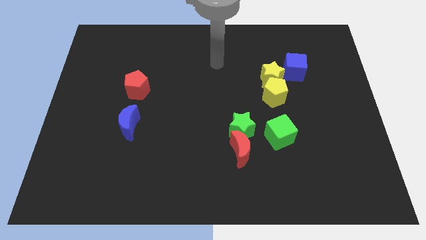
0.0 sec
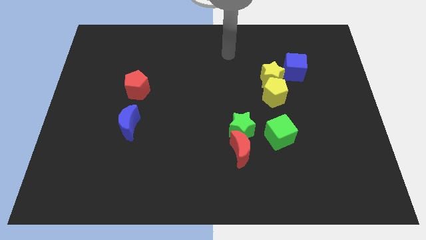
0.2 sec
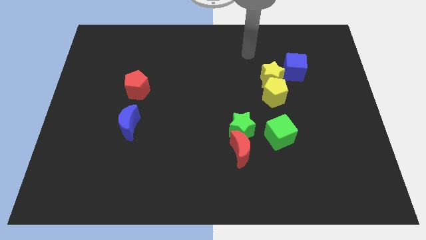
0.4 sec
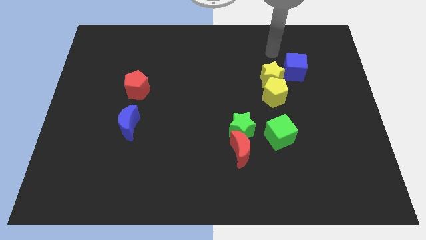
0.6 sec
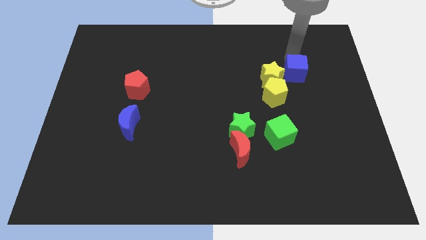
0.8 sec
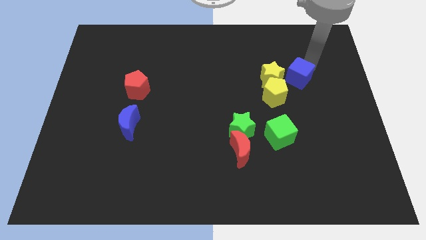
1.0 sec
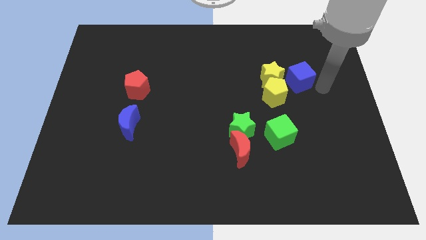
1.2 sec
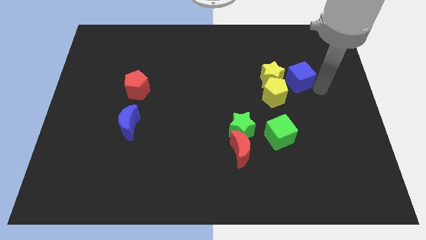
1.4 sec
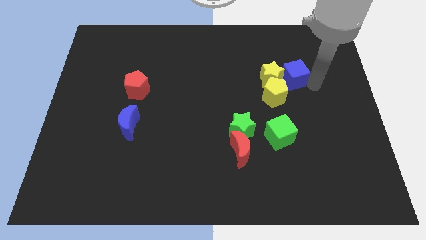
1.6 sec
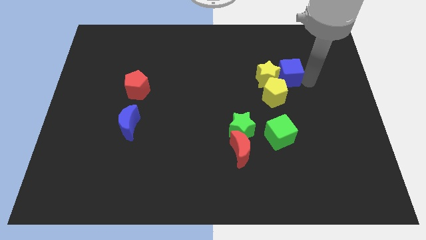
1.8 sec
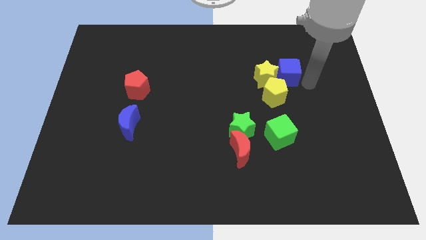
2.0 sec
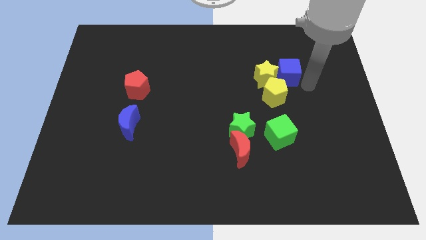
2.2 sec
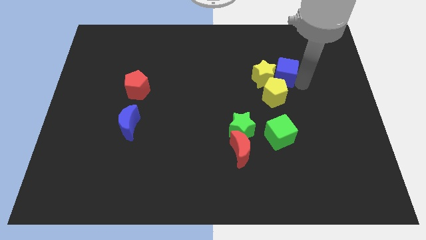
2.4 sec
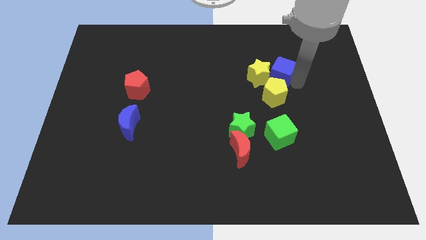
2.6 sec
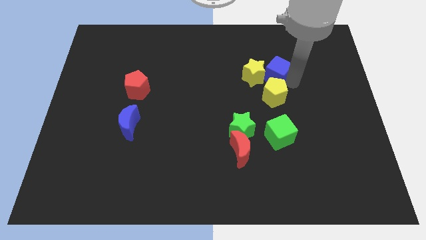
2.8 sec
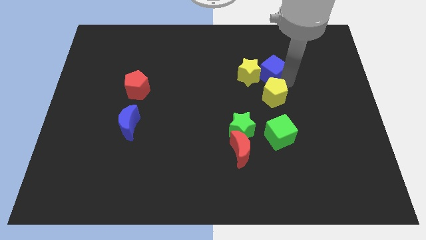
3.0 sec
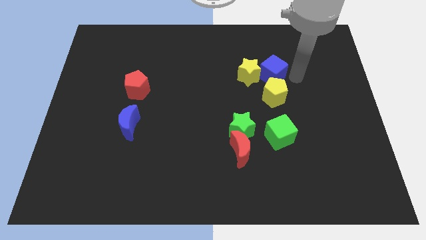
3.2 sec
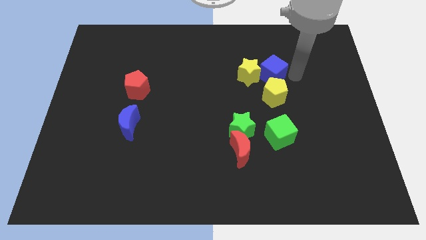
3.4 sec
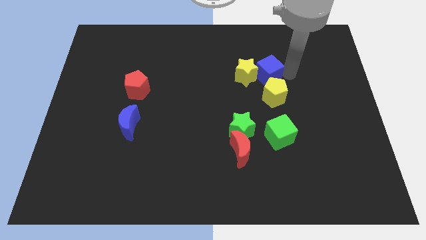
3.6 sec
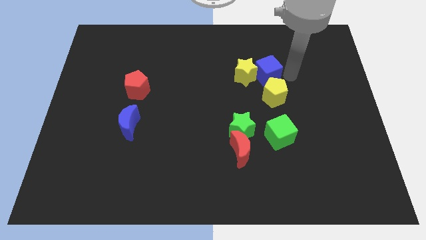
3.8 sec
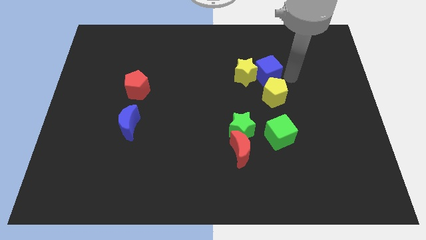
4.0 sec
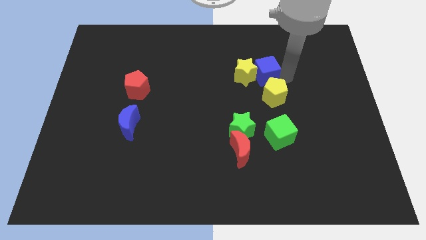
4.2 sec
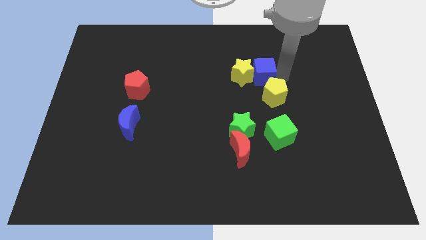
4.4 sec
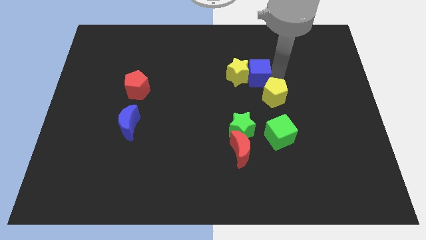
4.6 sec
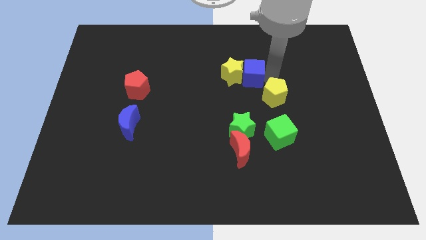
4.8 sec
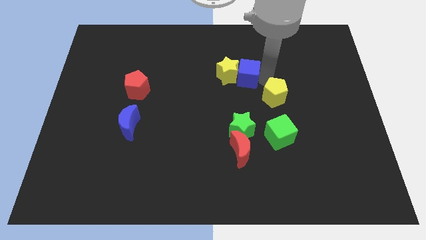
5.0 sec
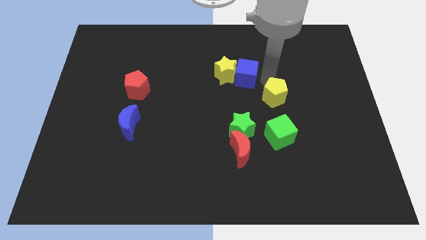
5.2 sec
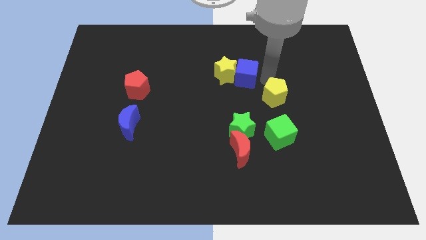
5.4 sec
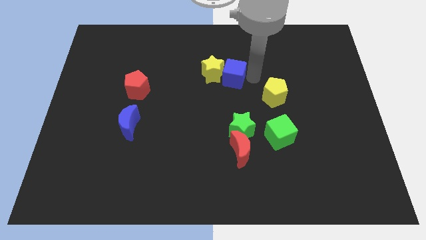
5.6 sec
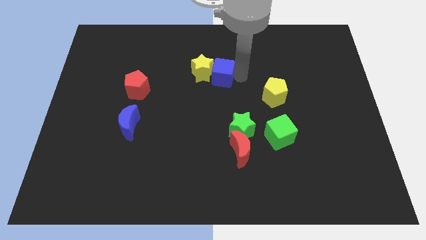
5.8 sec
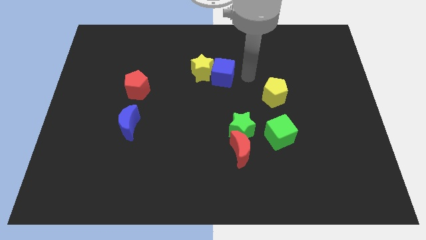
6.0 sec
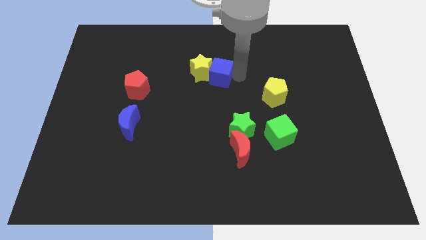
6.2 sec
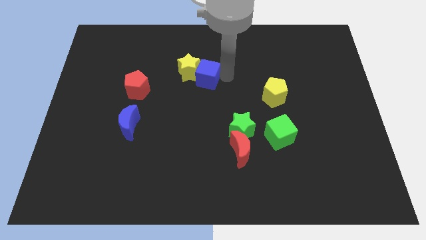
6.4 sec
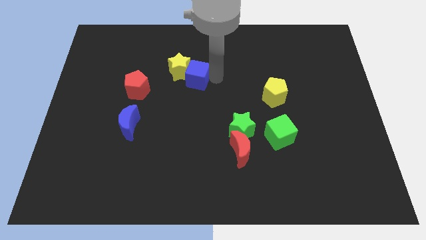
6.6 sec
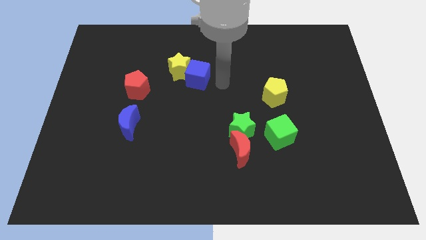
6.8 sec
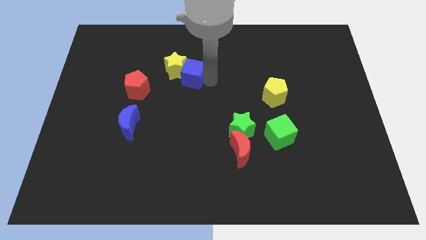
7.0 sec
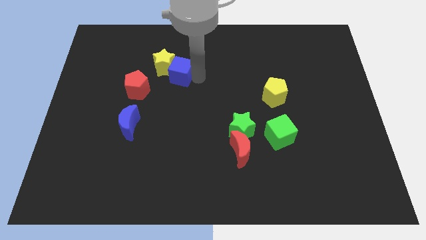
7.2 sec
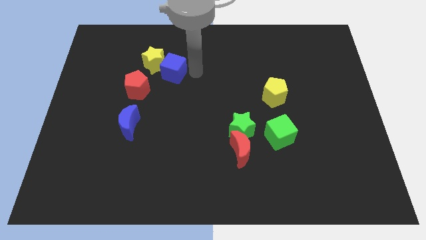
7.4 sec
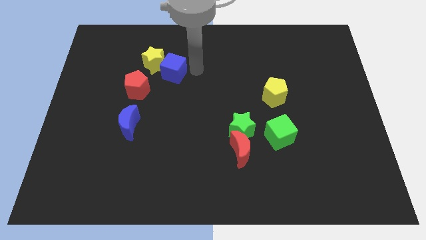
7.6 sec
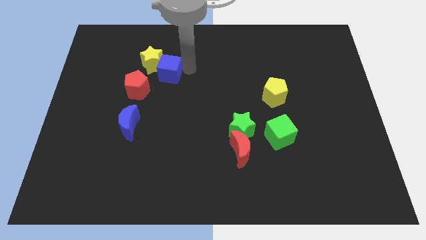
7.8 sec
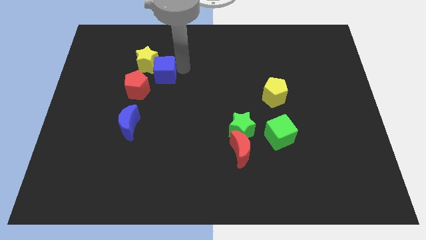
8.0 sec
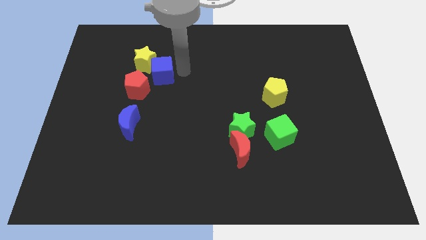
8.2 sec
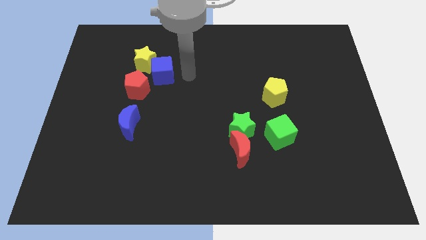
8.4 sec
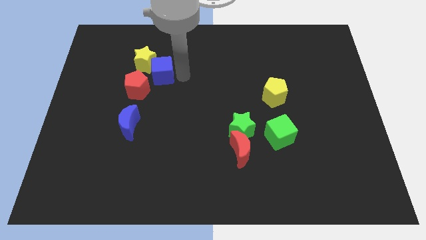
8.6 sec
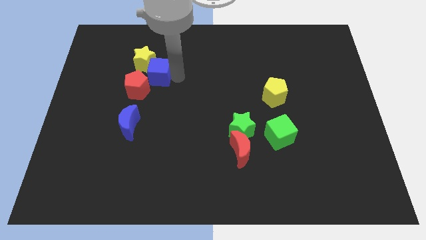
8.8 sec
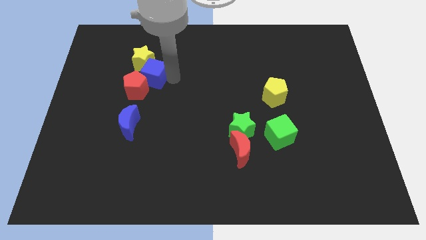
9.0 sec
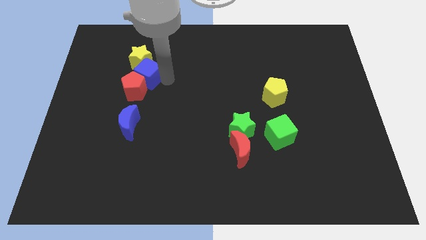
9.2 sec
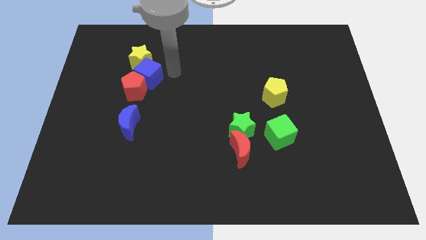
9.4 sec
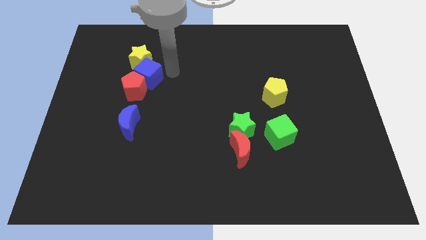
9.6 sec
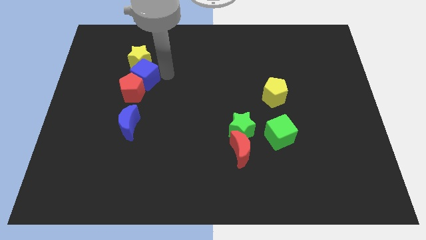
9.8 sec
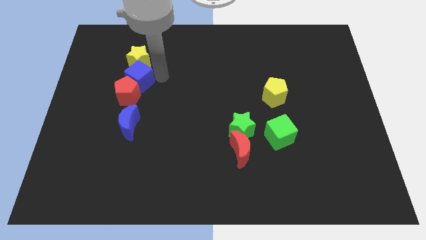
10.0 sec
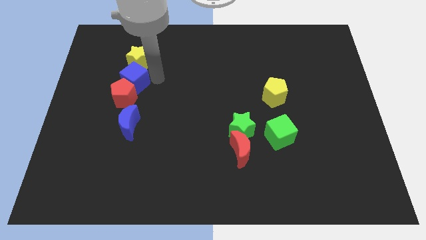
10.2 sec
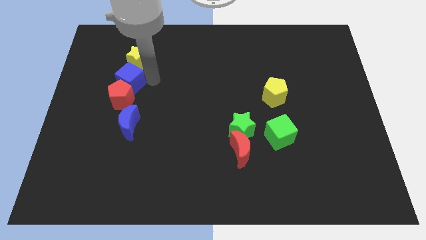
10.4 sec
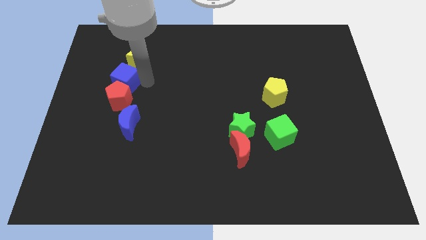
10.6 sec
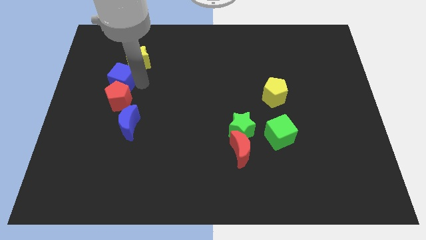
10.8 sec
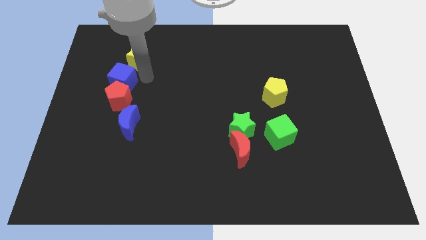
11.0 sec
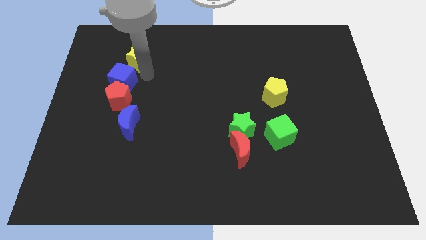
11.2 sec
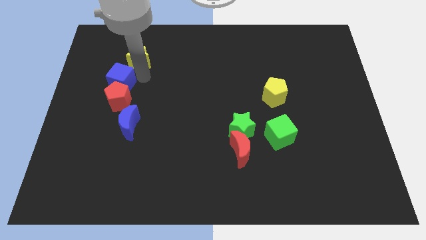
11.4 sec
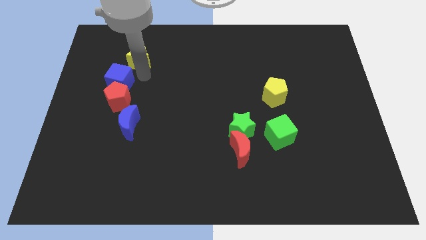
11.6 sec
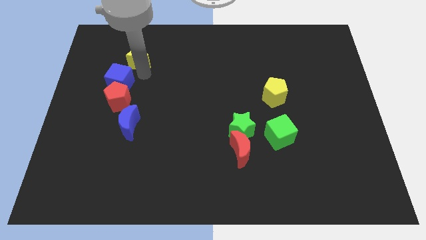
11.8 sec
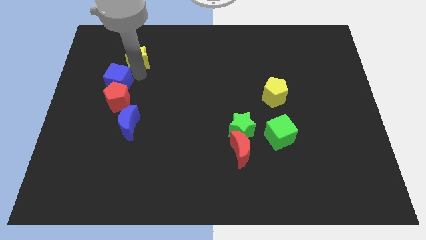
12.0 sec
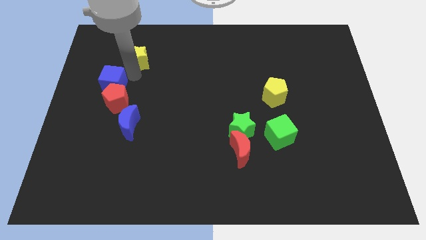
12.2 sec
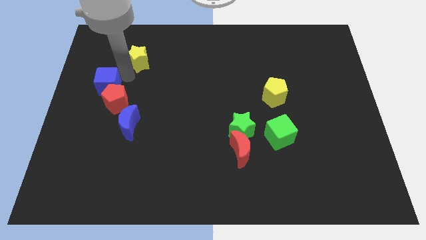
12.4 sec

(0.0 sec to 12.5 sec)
push the blue cube to the center left

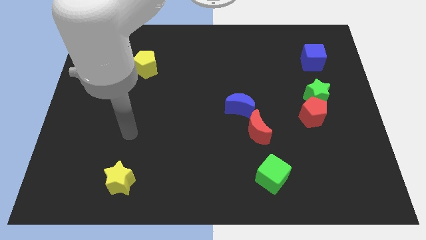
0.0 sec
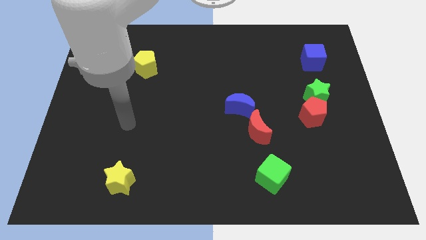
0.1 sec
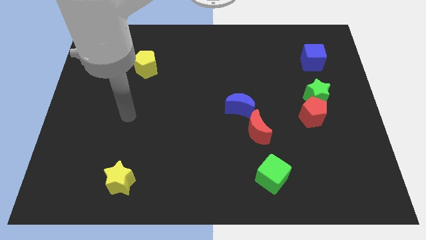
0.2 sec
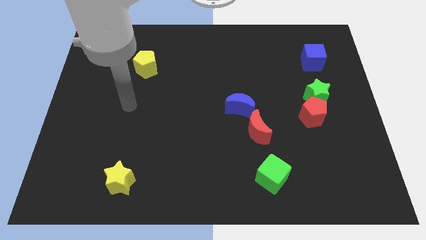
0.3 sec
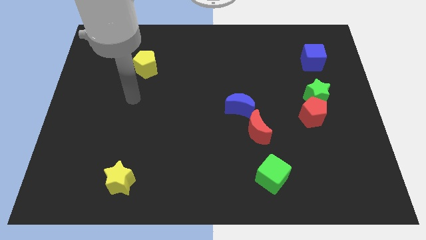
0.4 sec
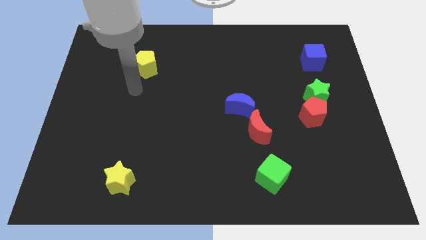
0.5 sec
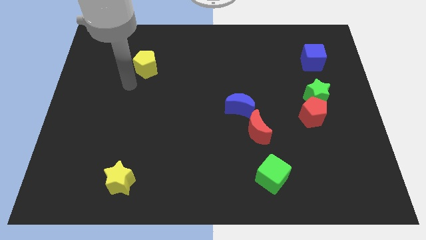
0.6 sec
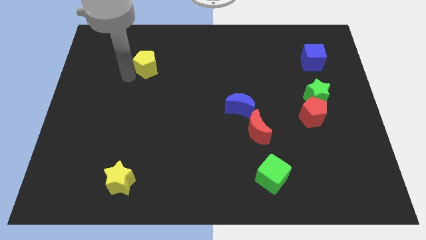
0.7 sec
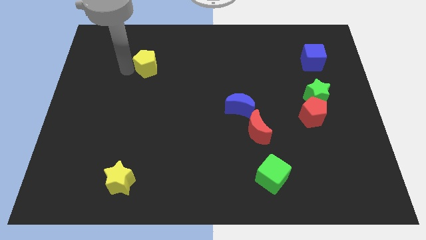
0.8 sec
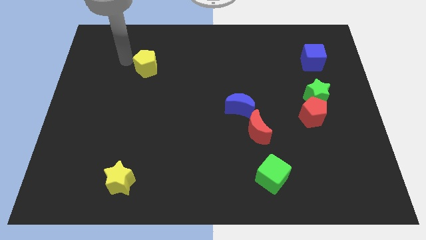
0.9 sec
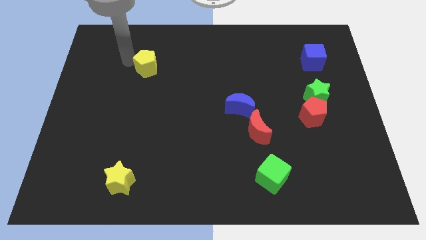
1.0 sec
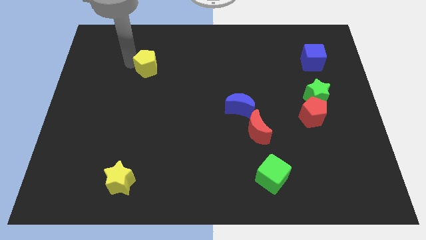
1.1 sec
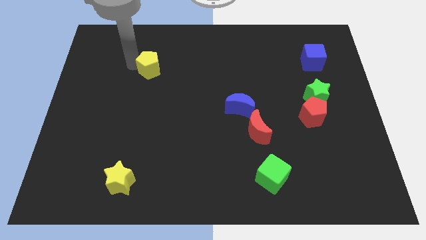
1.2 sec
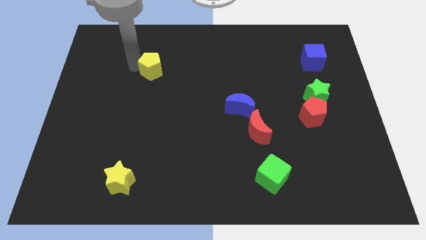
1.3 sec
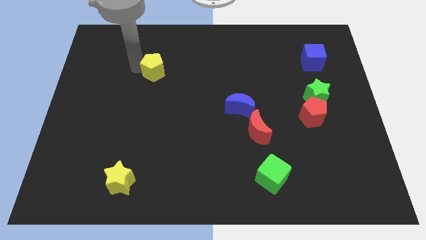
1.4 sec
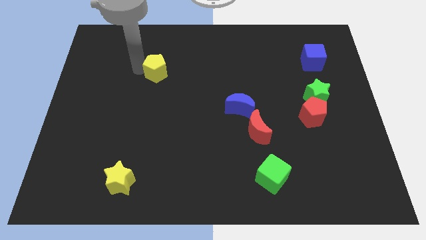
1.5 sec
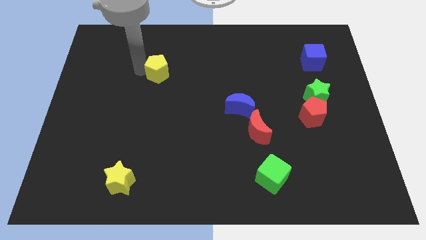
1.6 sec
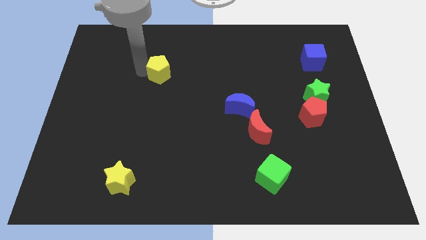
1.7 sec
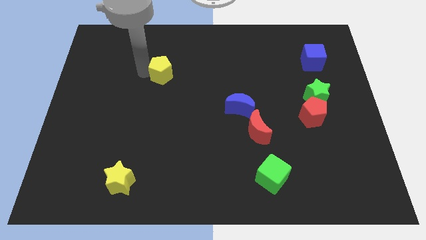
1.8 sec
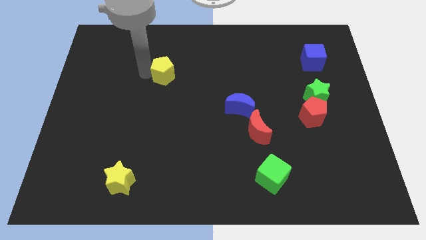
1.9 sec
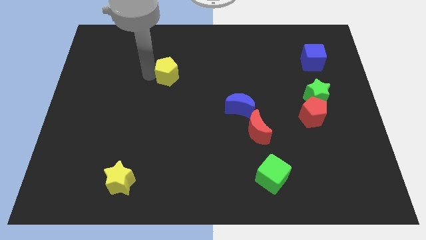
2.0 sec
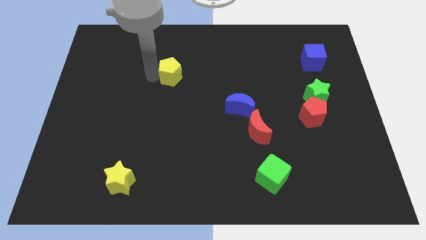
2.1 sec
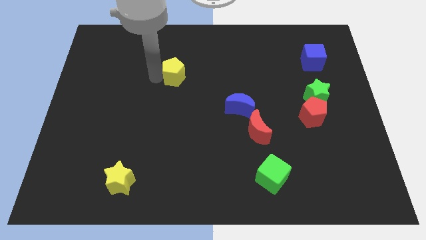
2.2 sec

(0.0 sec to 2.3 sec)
push the yellow pentagon to the middle of the board
